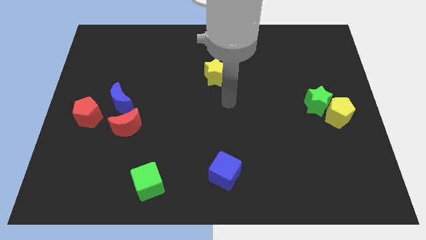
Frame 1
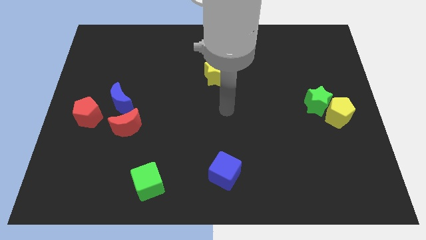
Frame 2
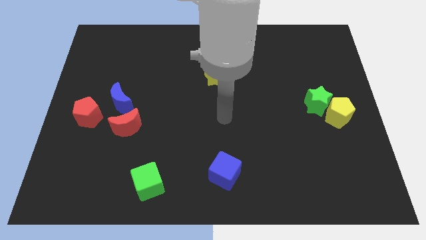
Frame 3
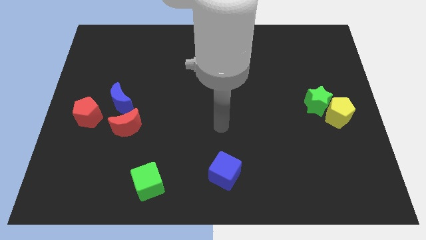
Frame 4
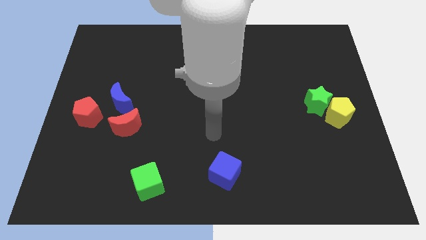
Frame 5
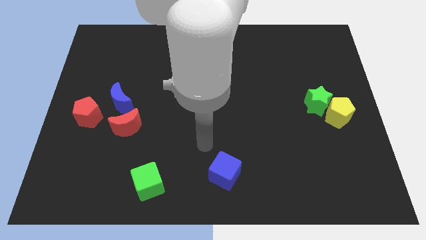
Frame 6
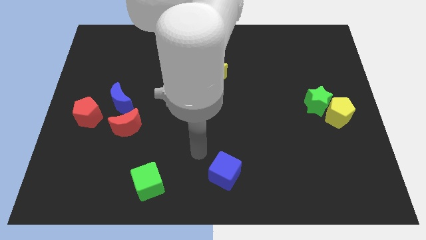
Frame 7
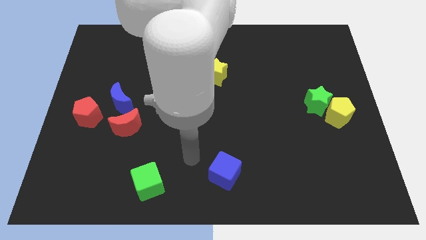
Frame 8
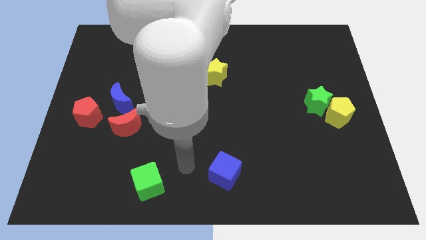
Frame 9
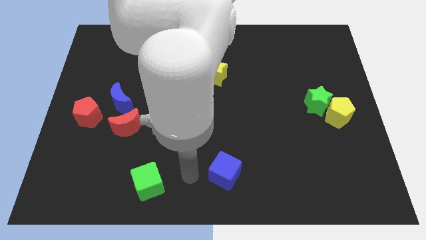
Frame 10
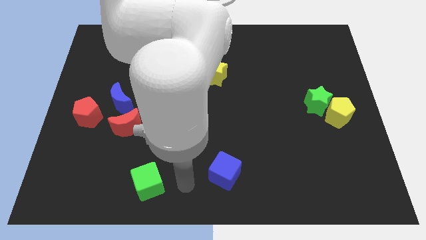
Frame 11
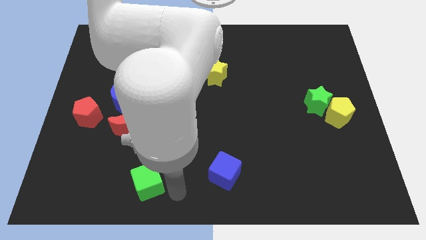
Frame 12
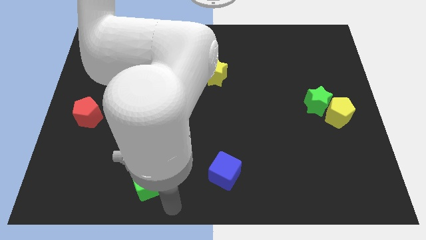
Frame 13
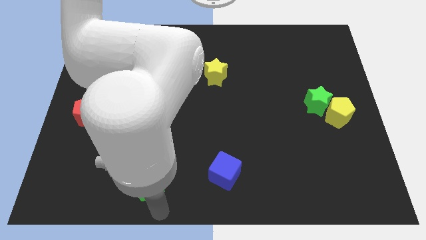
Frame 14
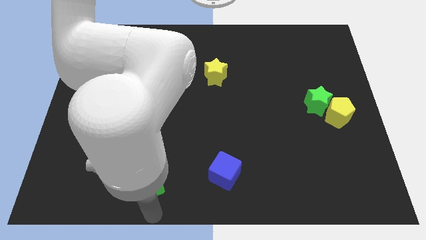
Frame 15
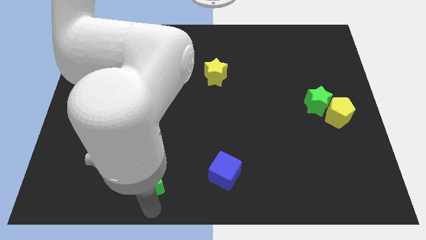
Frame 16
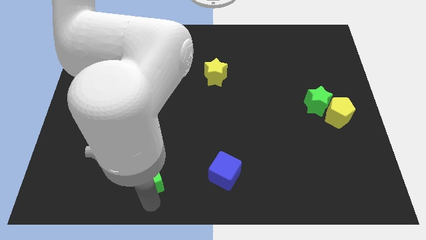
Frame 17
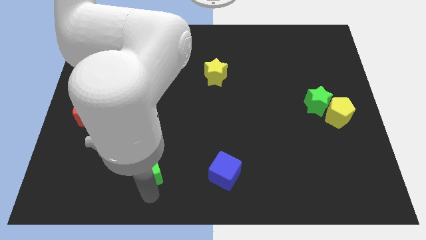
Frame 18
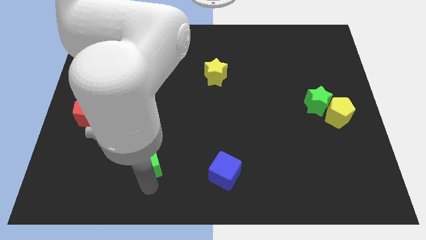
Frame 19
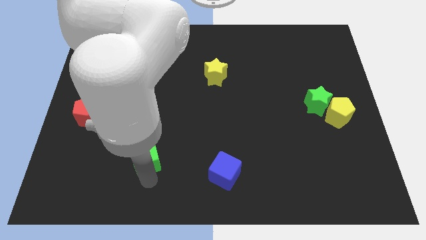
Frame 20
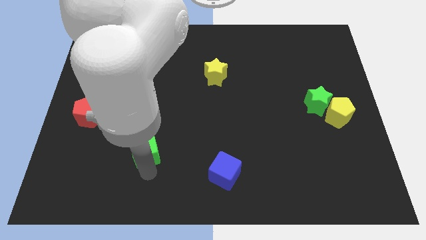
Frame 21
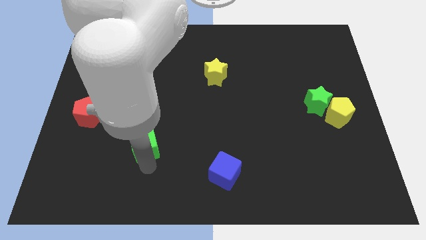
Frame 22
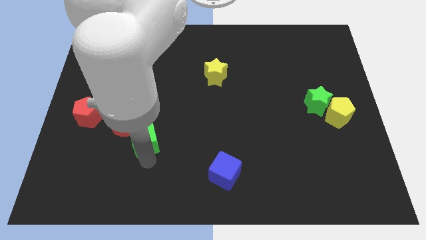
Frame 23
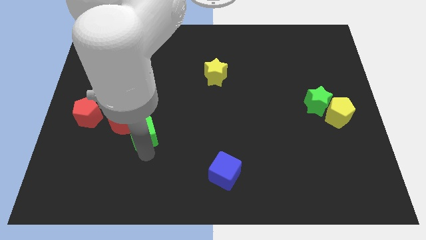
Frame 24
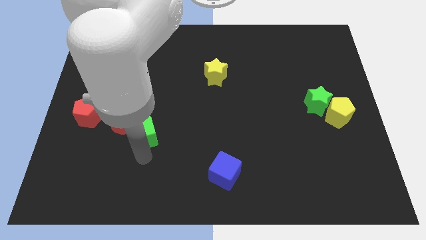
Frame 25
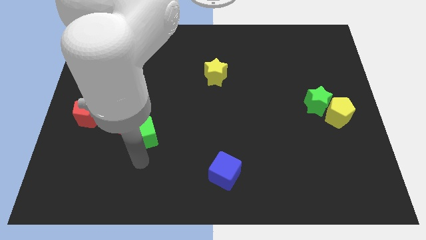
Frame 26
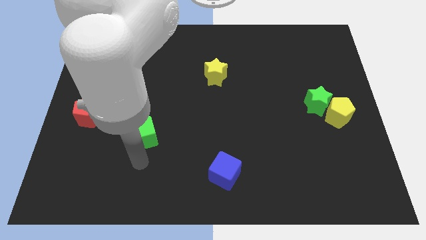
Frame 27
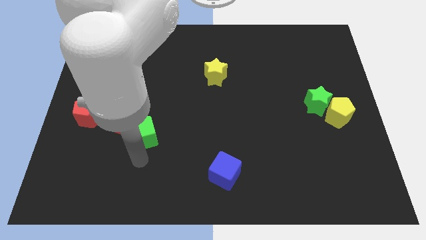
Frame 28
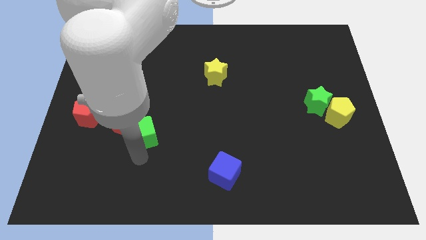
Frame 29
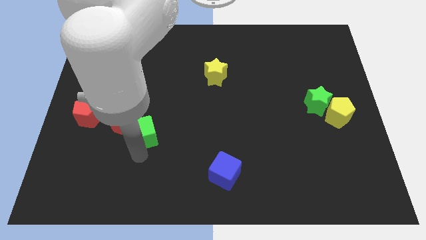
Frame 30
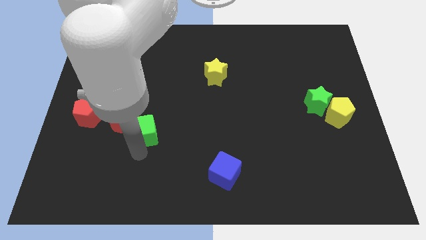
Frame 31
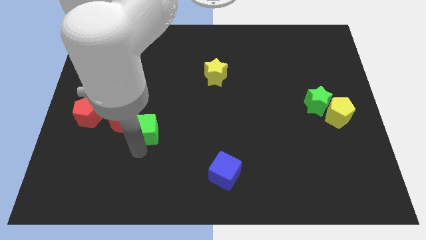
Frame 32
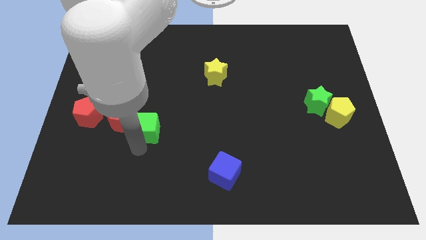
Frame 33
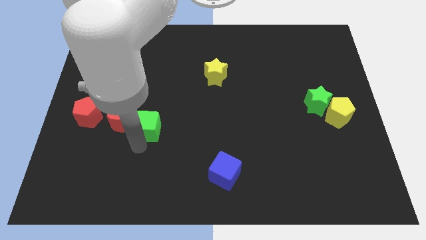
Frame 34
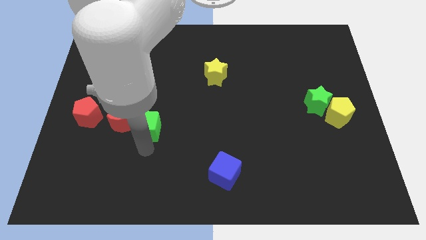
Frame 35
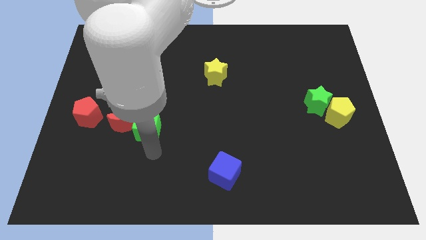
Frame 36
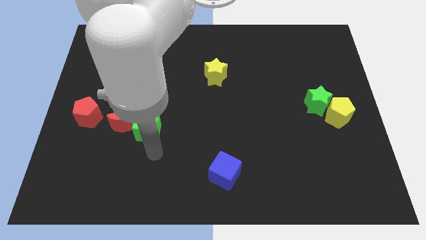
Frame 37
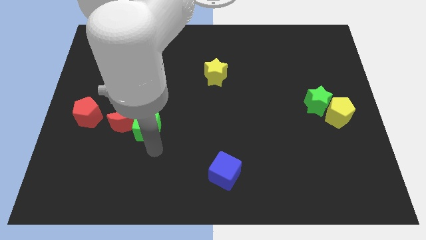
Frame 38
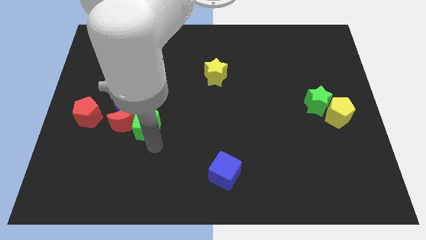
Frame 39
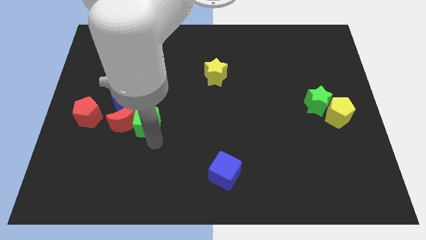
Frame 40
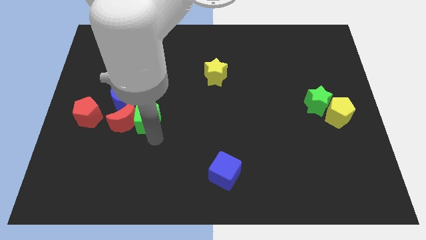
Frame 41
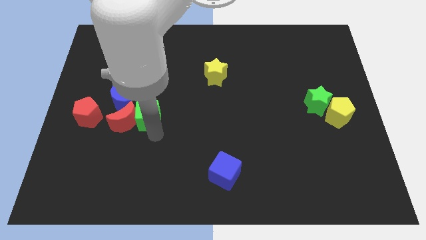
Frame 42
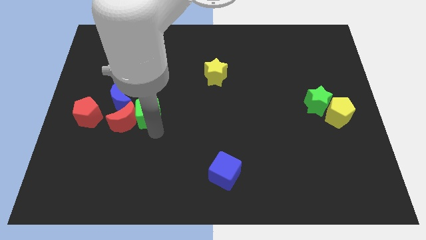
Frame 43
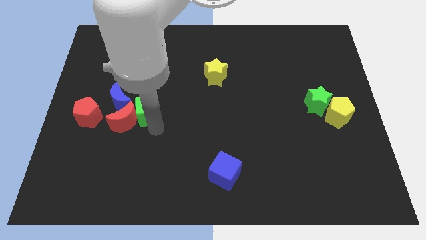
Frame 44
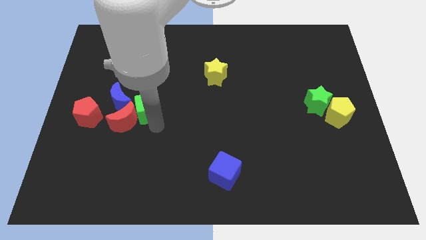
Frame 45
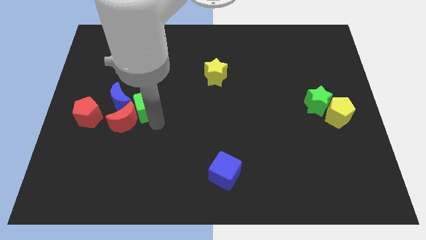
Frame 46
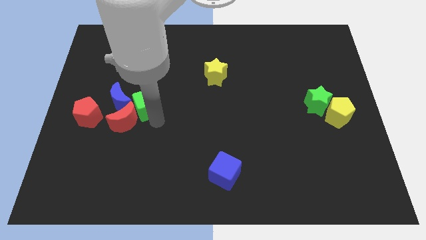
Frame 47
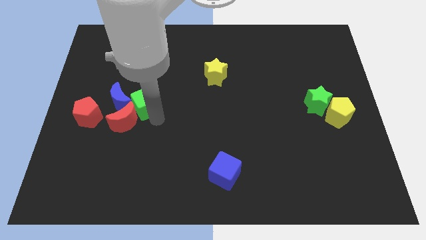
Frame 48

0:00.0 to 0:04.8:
put the green cube to the top right side of the blue moon

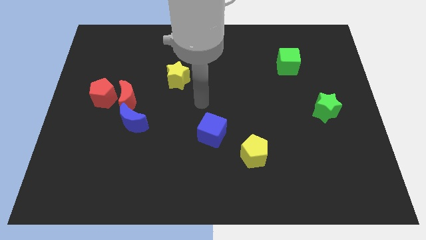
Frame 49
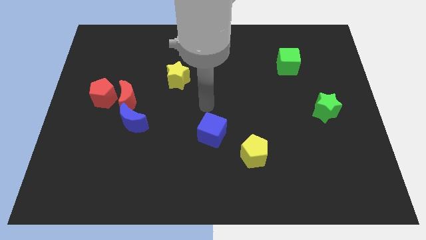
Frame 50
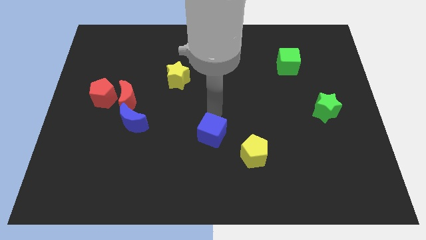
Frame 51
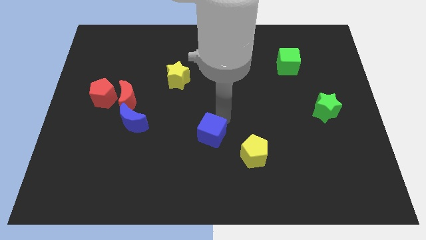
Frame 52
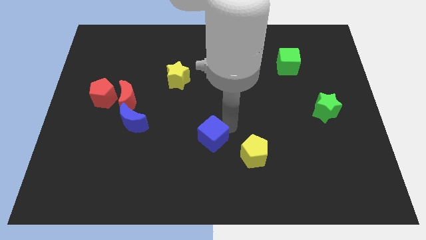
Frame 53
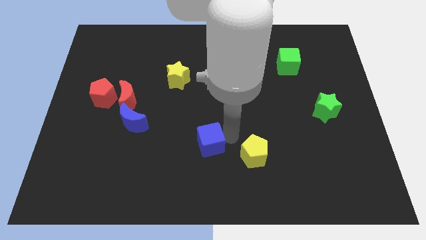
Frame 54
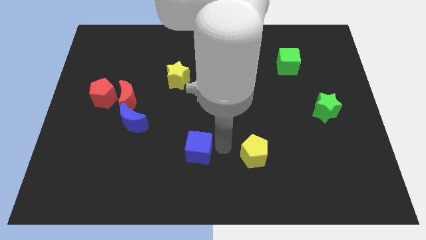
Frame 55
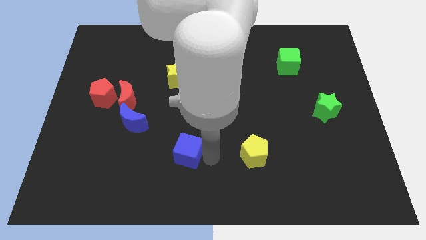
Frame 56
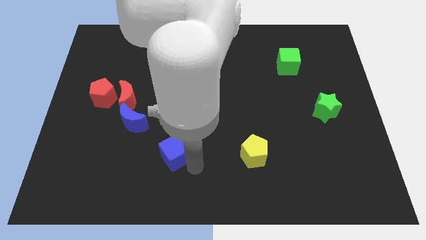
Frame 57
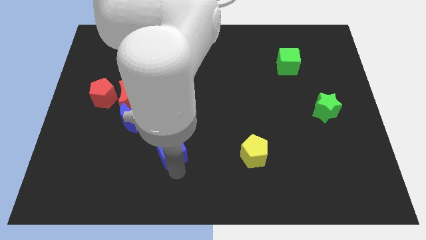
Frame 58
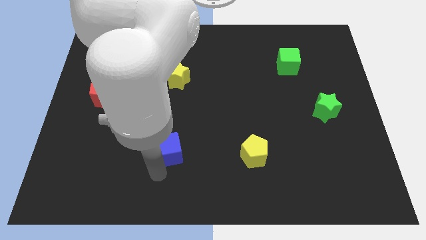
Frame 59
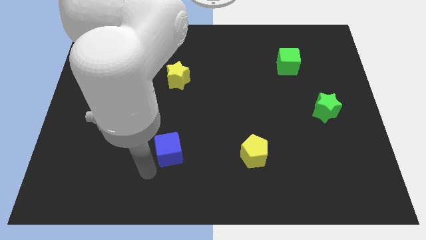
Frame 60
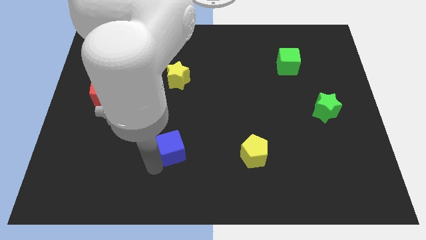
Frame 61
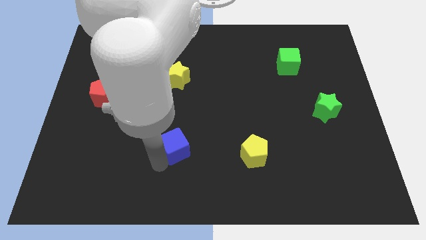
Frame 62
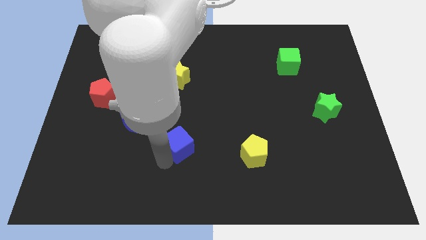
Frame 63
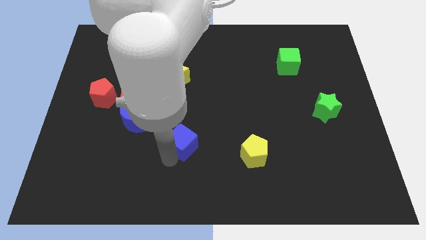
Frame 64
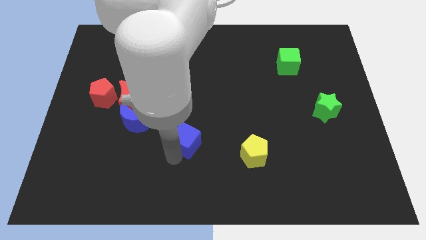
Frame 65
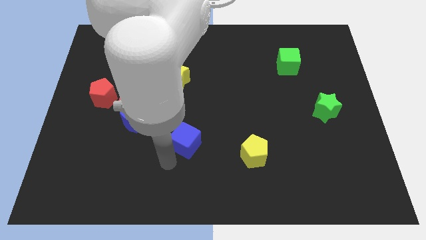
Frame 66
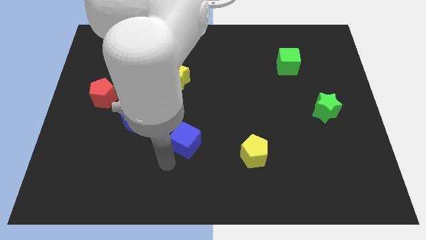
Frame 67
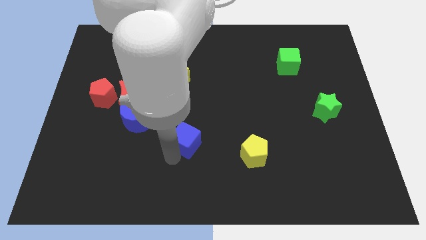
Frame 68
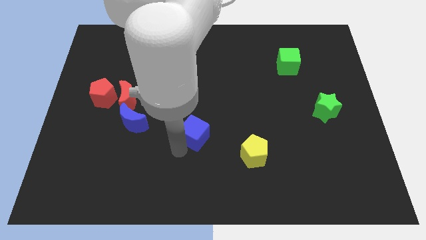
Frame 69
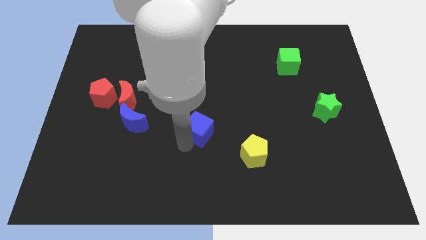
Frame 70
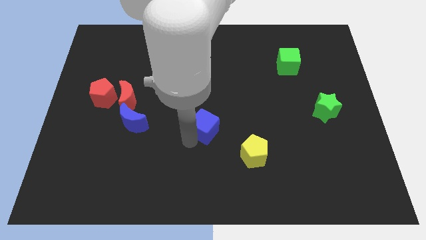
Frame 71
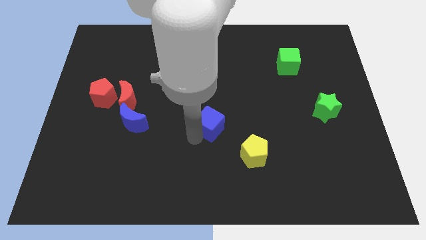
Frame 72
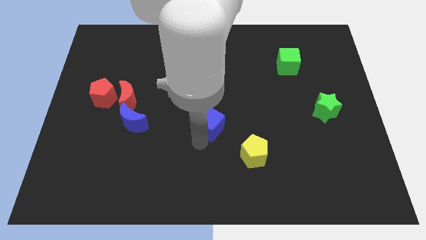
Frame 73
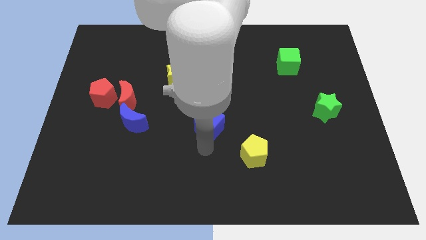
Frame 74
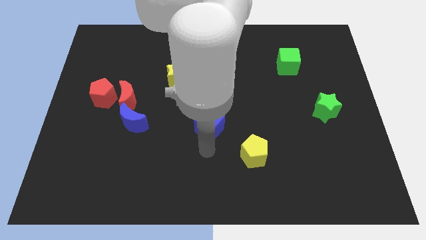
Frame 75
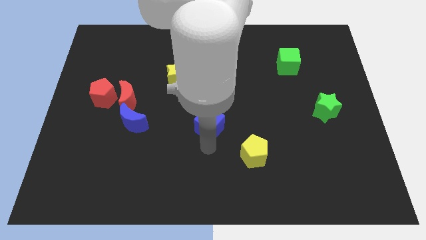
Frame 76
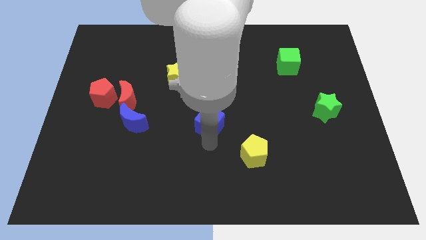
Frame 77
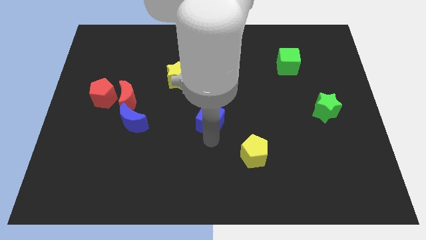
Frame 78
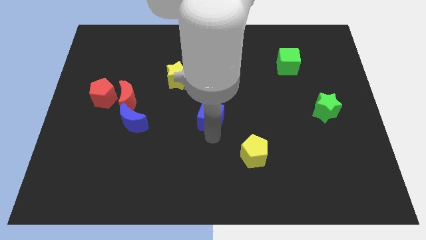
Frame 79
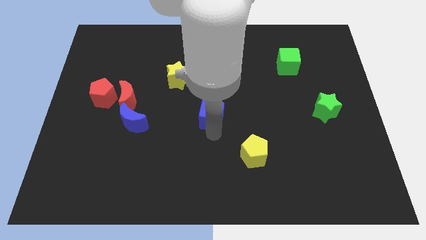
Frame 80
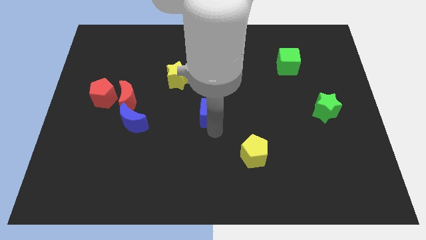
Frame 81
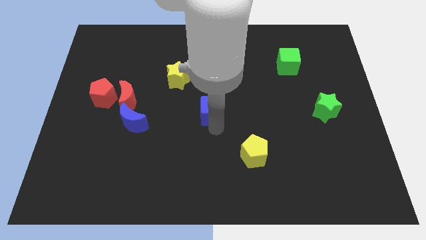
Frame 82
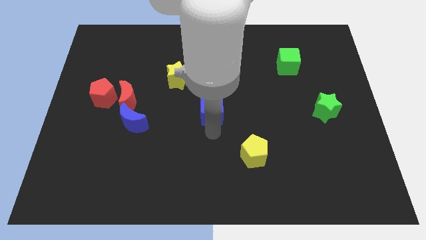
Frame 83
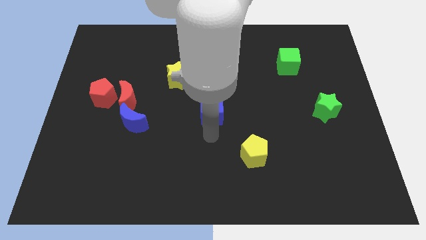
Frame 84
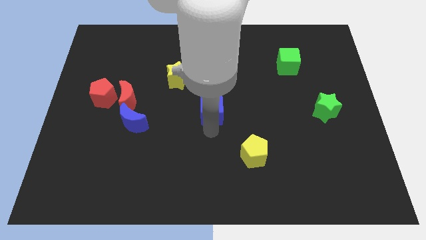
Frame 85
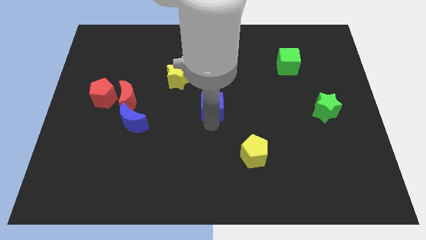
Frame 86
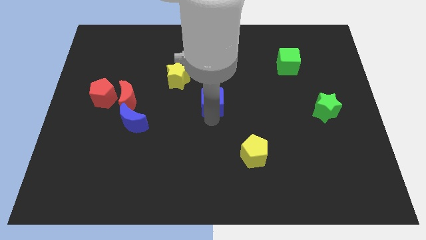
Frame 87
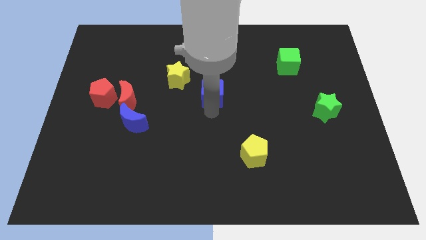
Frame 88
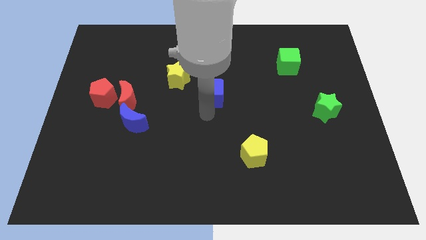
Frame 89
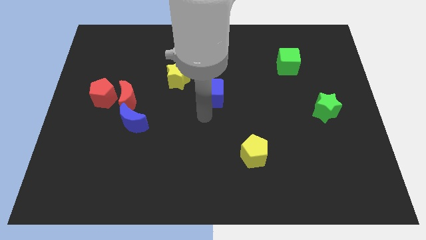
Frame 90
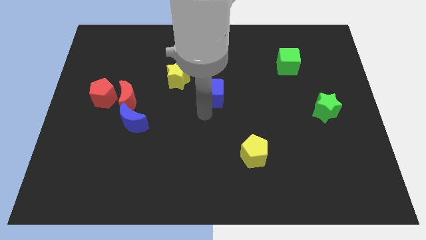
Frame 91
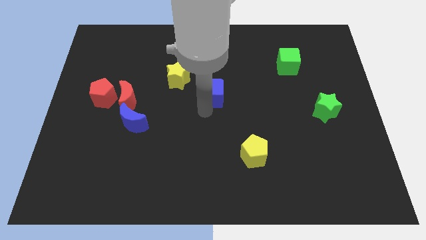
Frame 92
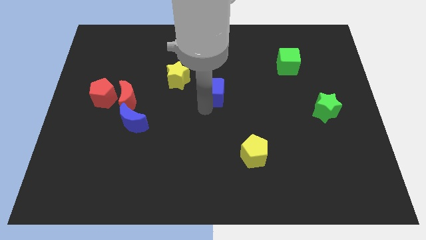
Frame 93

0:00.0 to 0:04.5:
slide the blue cube right of the yellow star
